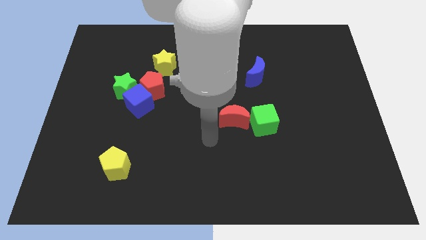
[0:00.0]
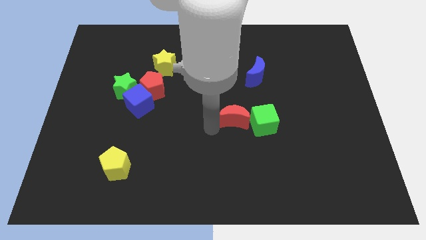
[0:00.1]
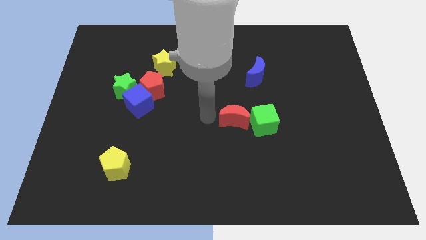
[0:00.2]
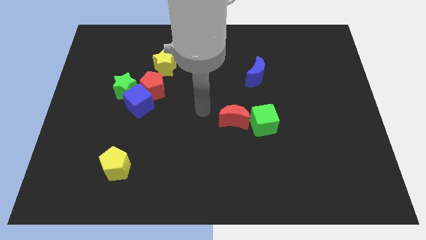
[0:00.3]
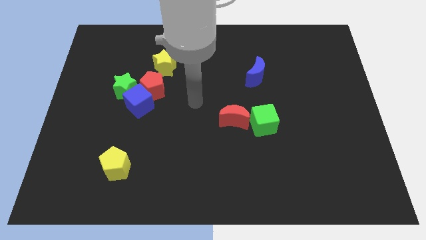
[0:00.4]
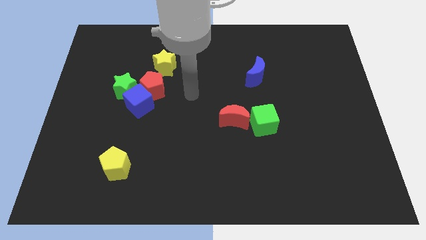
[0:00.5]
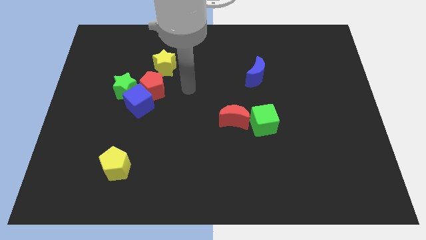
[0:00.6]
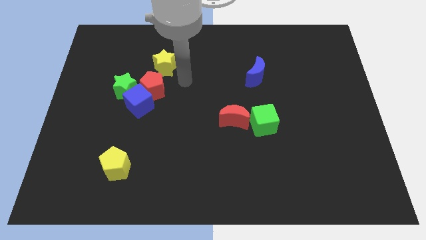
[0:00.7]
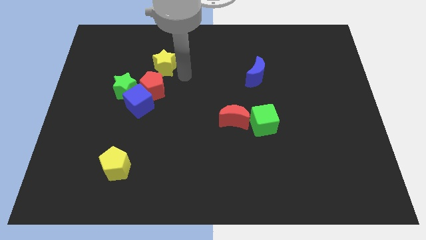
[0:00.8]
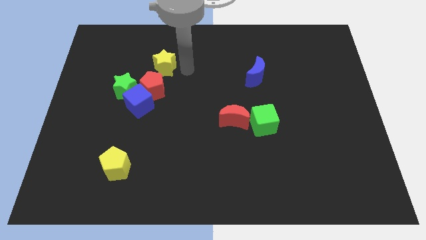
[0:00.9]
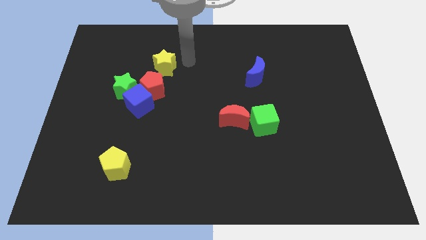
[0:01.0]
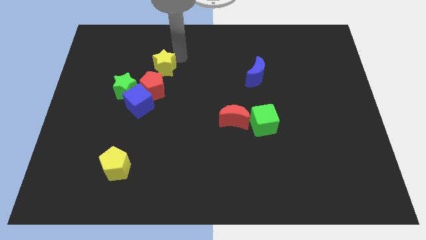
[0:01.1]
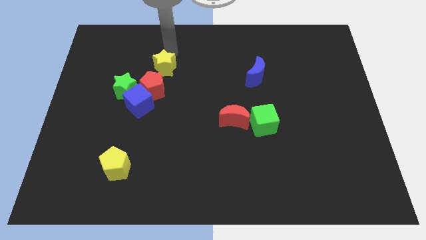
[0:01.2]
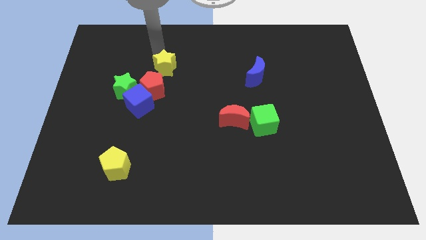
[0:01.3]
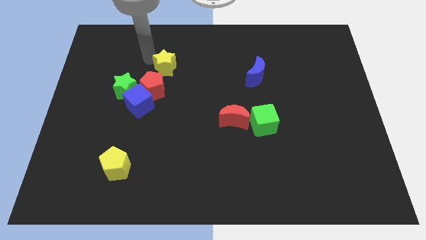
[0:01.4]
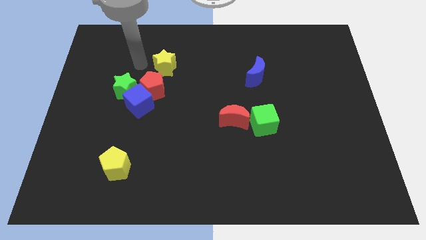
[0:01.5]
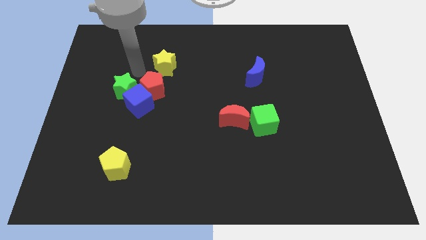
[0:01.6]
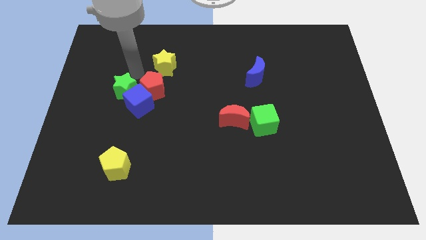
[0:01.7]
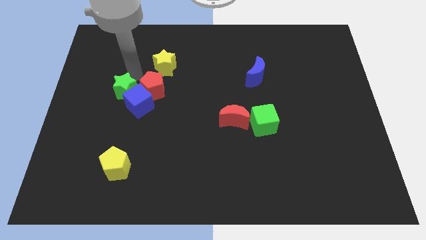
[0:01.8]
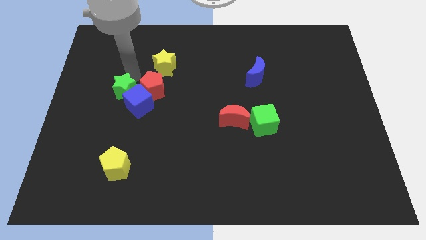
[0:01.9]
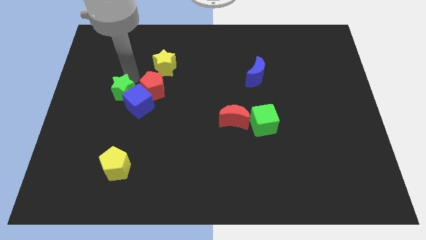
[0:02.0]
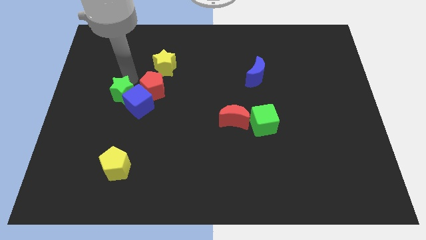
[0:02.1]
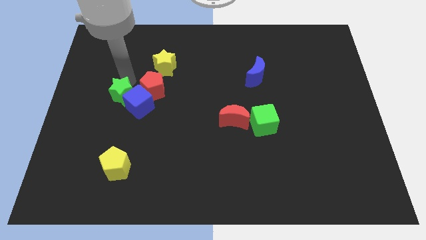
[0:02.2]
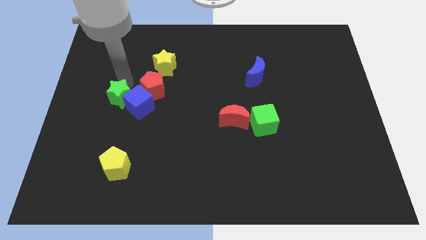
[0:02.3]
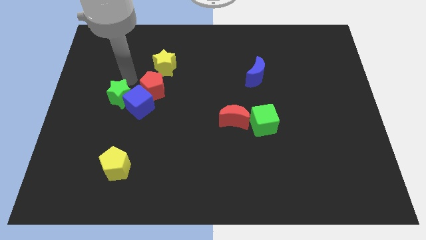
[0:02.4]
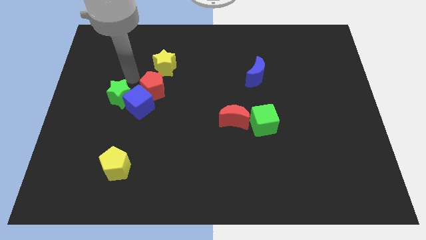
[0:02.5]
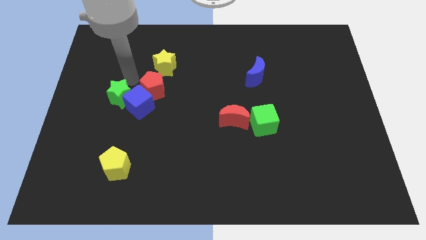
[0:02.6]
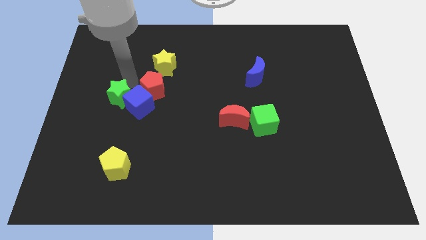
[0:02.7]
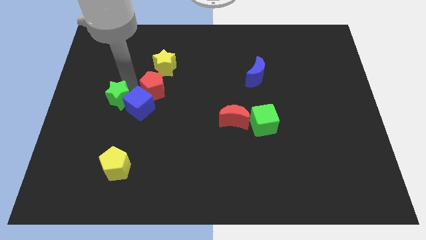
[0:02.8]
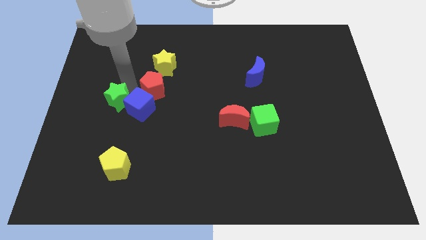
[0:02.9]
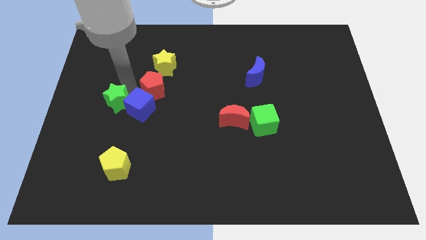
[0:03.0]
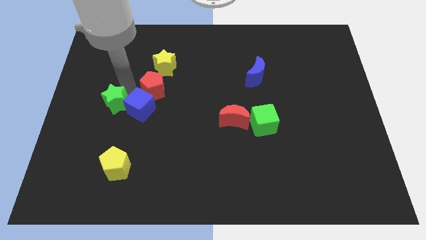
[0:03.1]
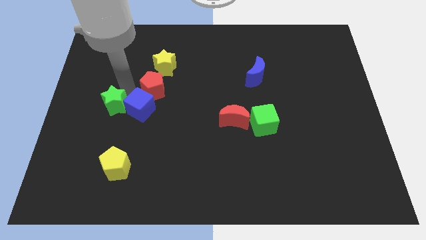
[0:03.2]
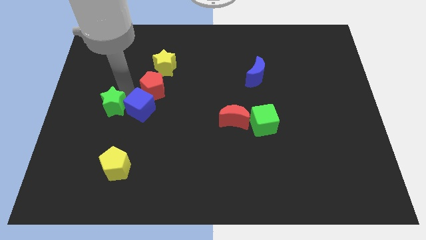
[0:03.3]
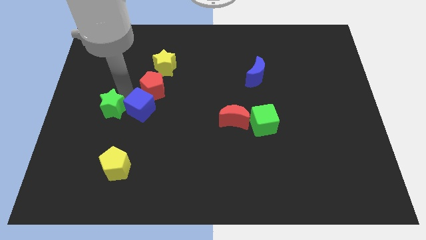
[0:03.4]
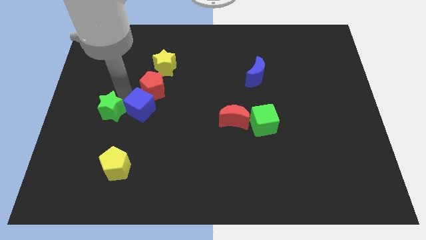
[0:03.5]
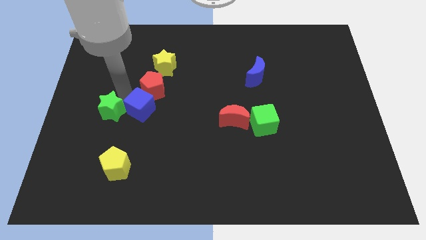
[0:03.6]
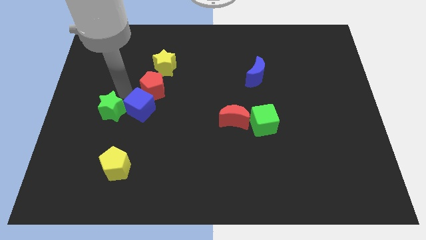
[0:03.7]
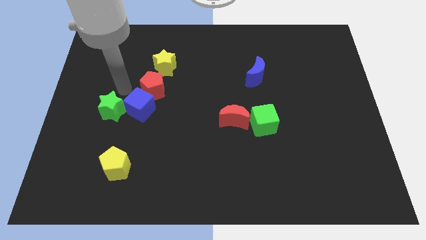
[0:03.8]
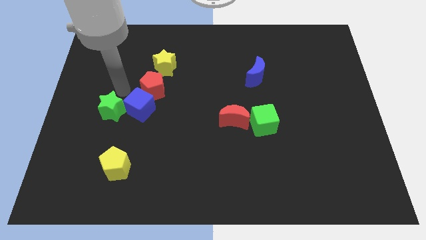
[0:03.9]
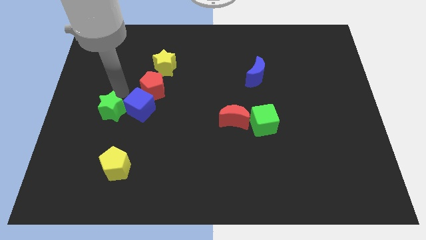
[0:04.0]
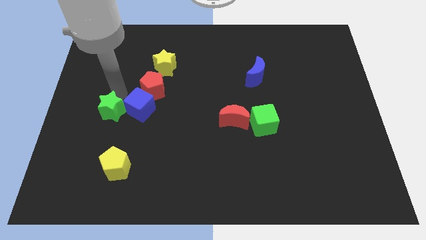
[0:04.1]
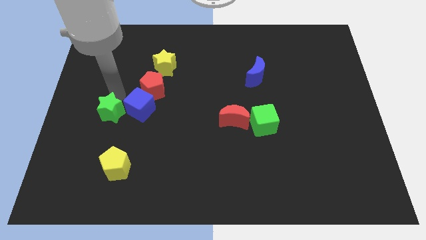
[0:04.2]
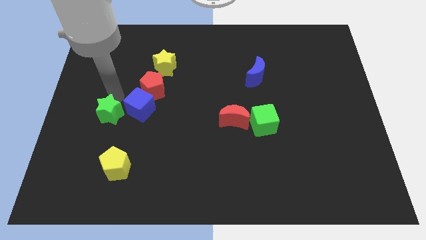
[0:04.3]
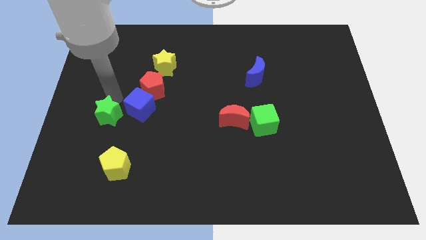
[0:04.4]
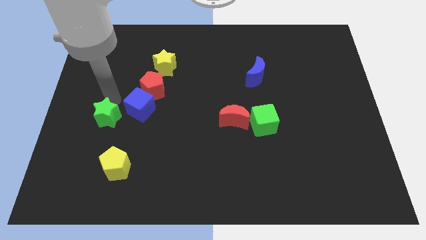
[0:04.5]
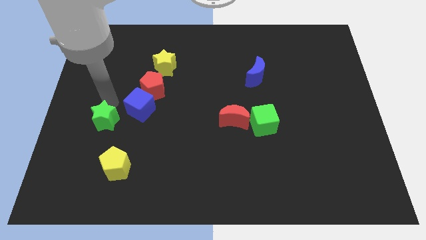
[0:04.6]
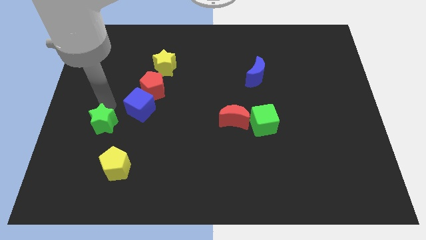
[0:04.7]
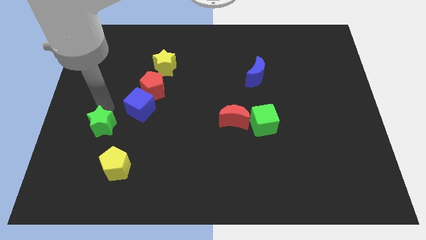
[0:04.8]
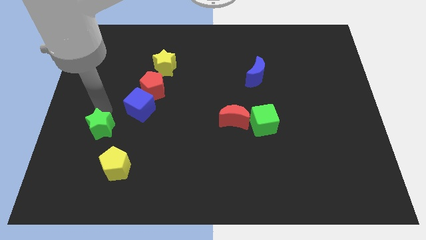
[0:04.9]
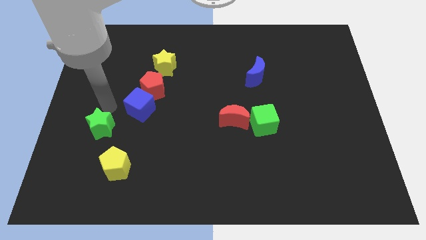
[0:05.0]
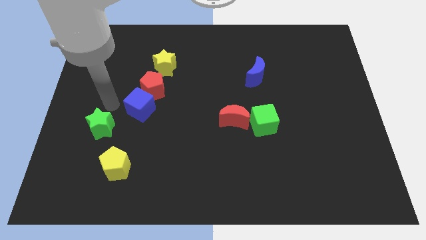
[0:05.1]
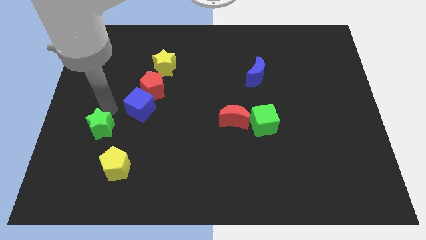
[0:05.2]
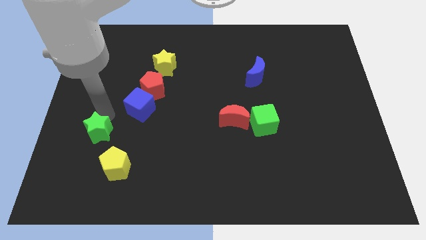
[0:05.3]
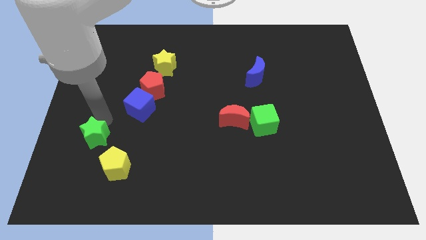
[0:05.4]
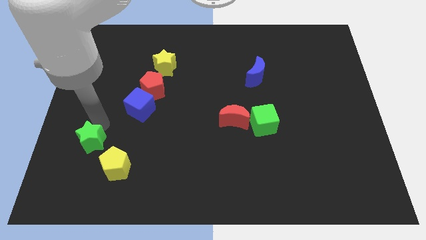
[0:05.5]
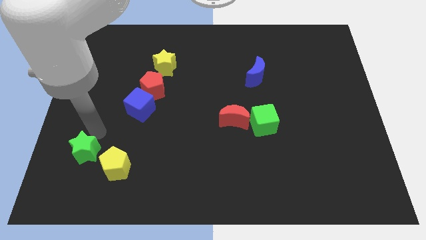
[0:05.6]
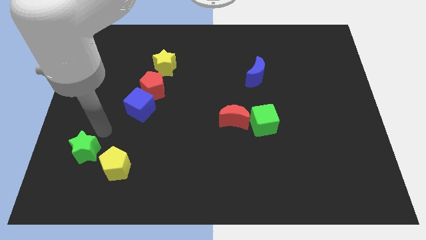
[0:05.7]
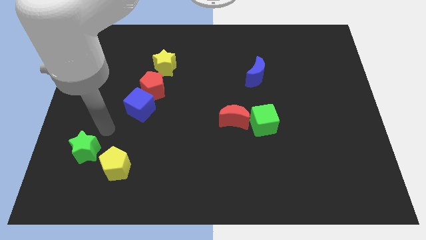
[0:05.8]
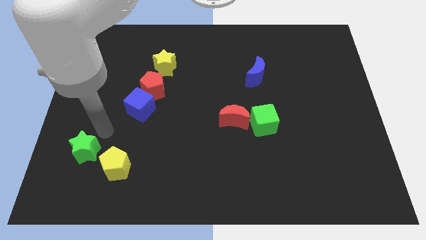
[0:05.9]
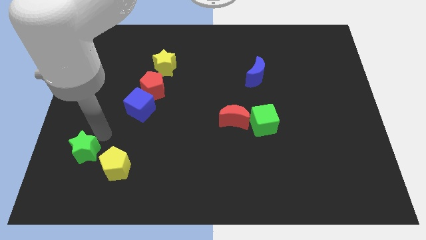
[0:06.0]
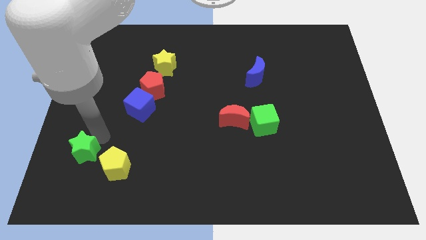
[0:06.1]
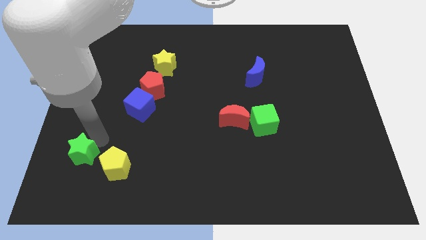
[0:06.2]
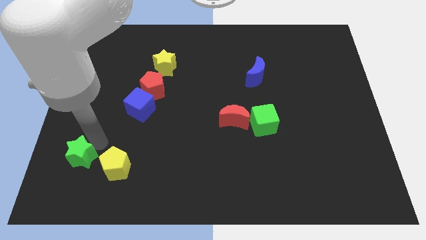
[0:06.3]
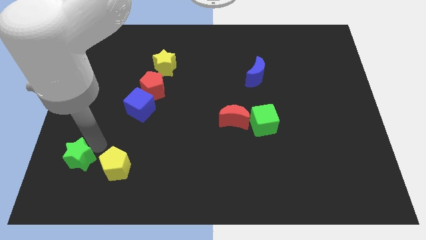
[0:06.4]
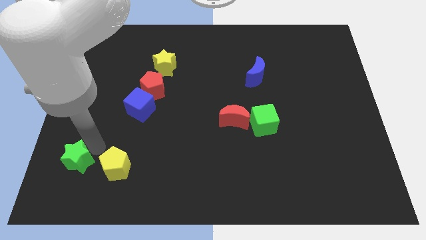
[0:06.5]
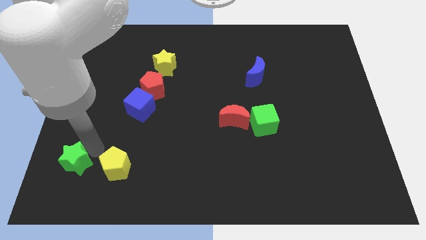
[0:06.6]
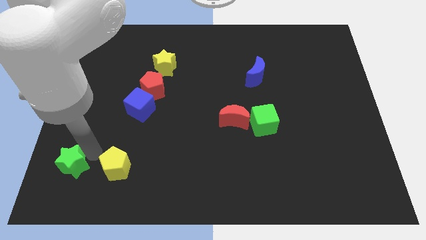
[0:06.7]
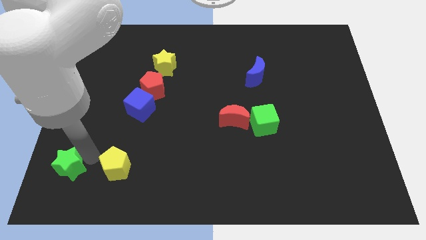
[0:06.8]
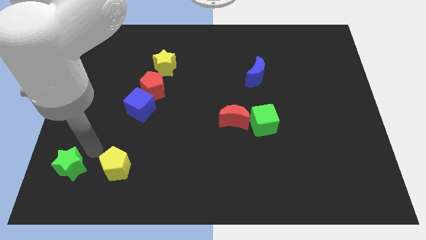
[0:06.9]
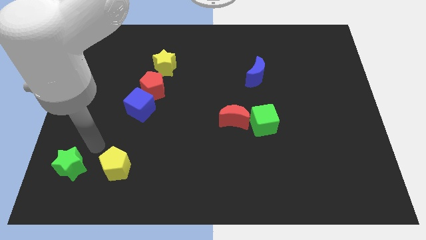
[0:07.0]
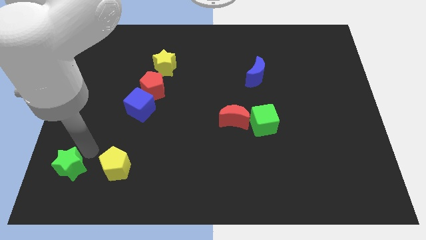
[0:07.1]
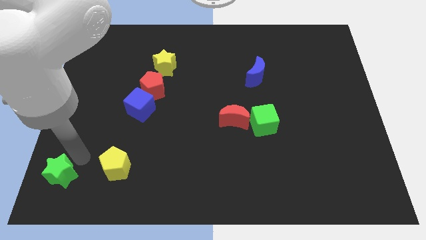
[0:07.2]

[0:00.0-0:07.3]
push the green star to the bottom left

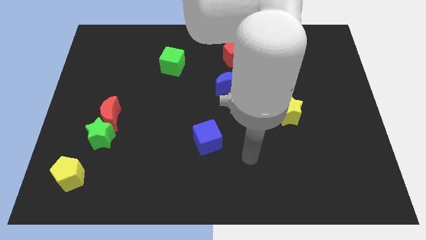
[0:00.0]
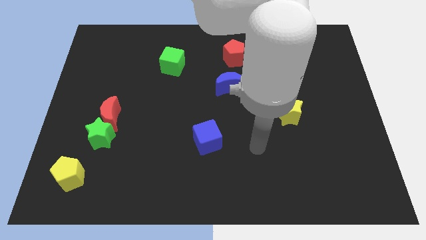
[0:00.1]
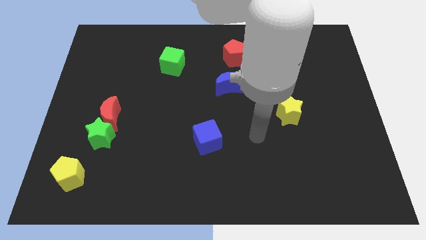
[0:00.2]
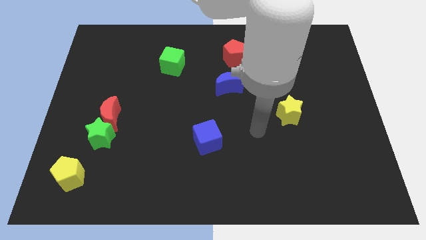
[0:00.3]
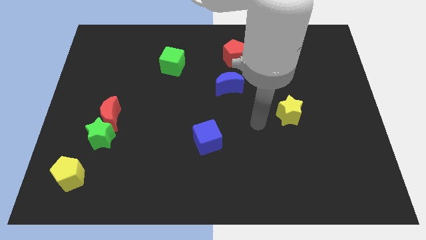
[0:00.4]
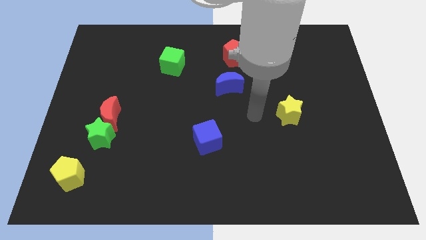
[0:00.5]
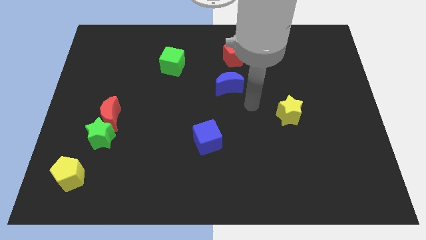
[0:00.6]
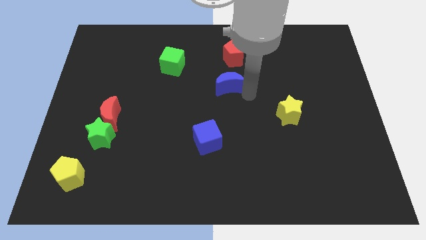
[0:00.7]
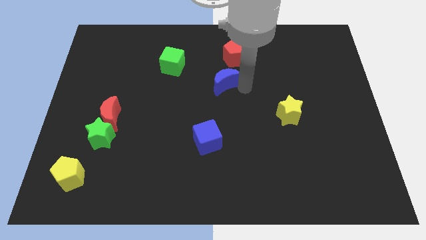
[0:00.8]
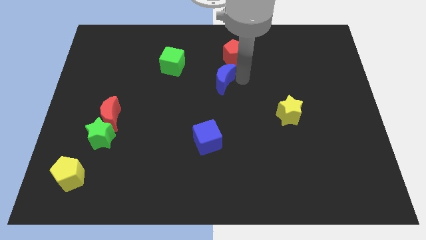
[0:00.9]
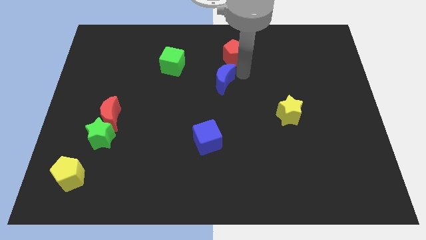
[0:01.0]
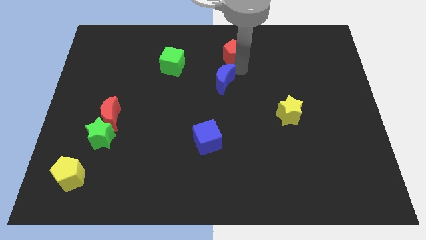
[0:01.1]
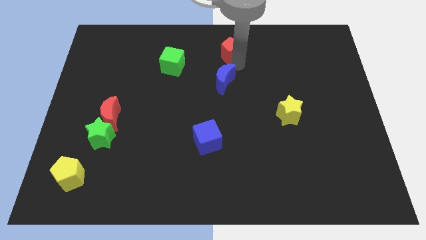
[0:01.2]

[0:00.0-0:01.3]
put the red pentagon to the top
